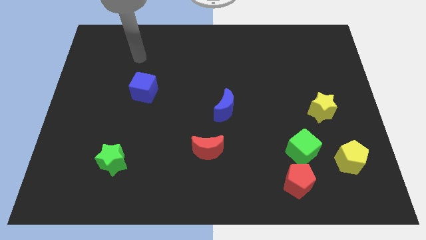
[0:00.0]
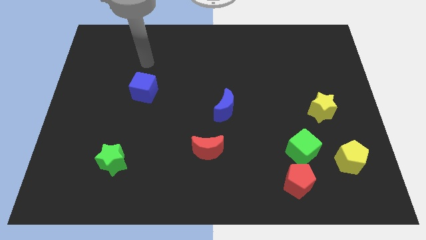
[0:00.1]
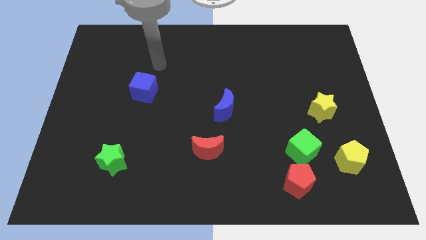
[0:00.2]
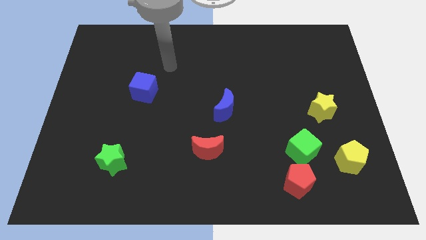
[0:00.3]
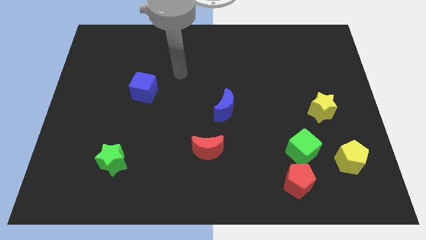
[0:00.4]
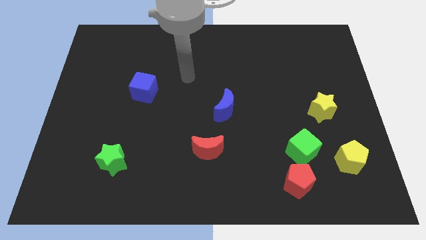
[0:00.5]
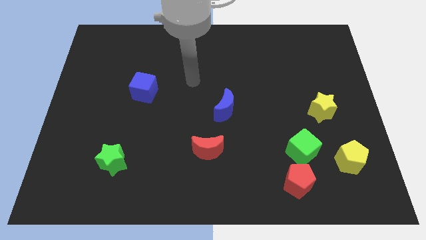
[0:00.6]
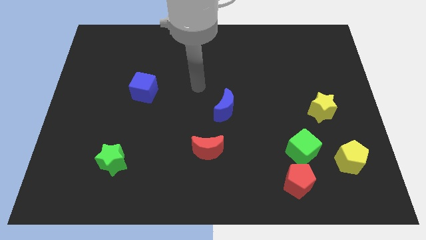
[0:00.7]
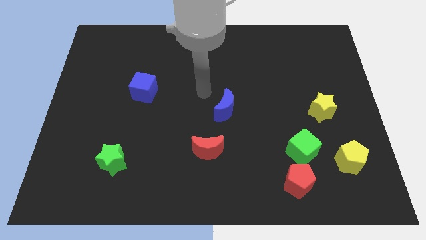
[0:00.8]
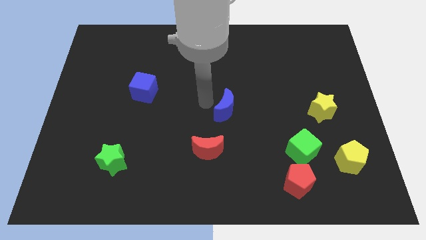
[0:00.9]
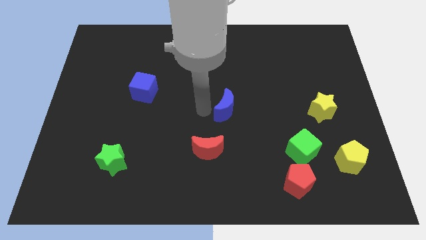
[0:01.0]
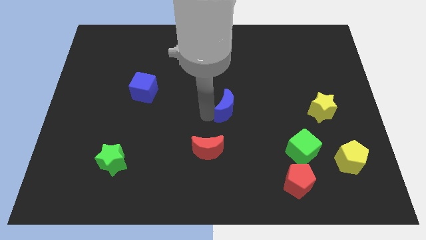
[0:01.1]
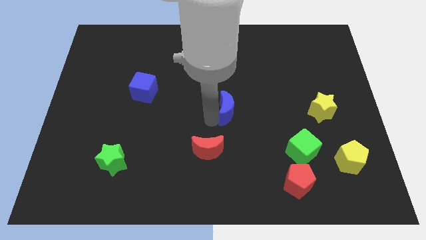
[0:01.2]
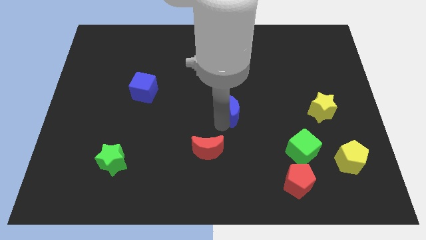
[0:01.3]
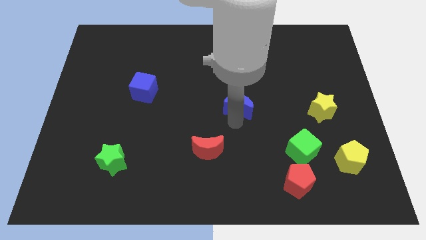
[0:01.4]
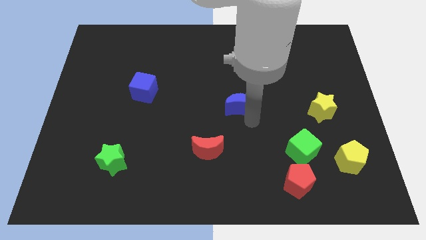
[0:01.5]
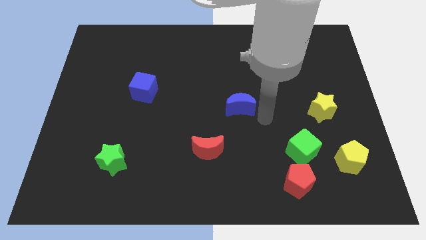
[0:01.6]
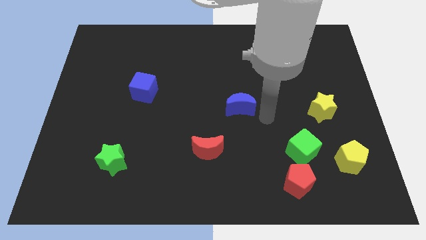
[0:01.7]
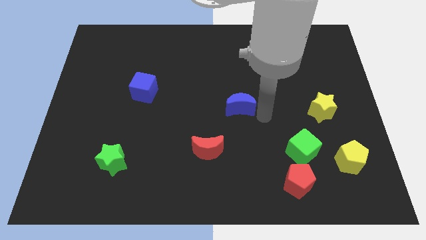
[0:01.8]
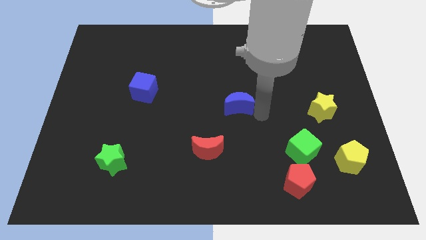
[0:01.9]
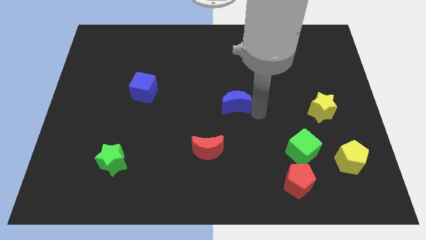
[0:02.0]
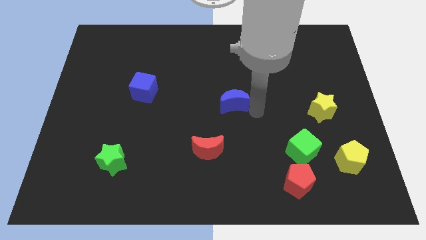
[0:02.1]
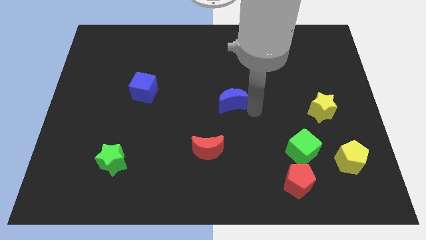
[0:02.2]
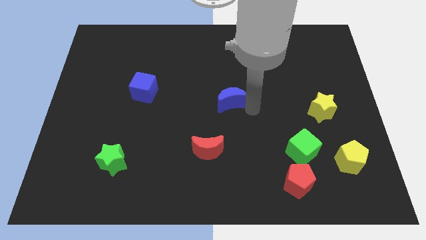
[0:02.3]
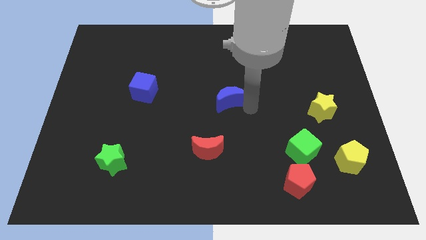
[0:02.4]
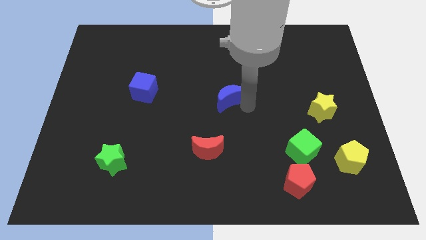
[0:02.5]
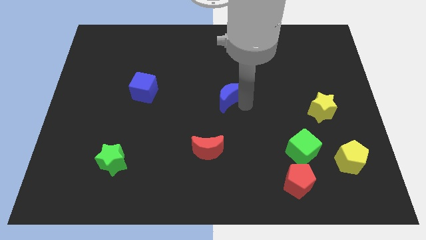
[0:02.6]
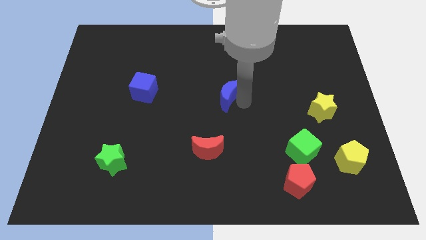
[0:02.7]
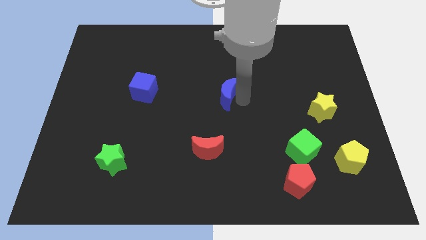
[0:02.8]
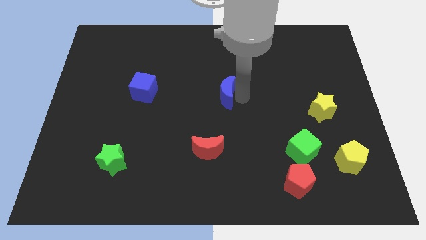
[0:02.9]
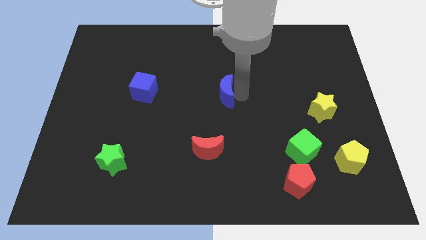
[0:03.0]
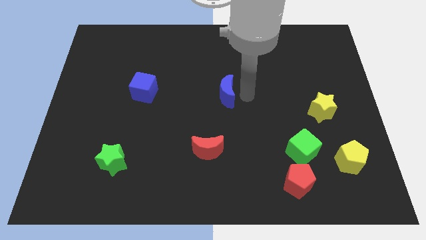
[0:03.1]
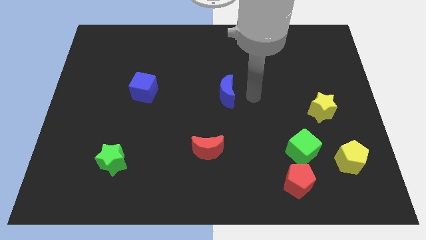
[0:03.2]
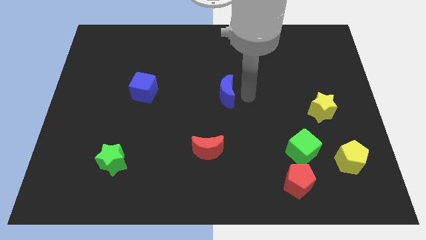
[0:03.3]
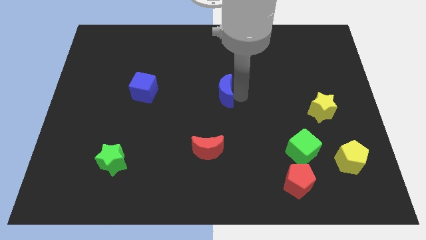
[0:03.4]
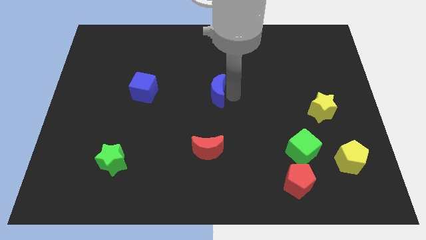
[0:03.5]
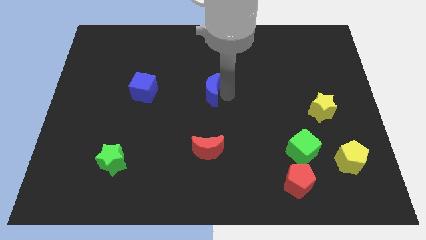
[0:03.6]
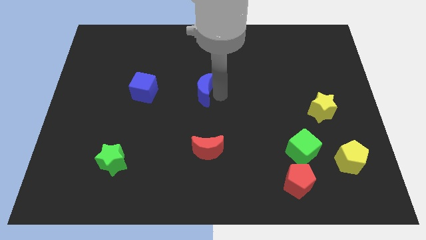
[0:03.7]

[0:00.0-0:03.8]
slide the blue moon up and left a little

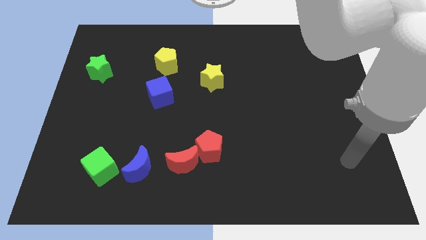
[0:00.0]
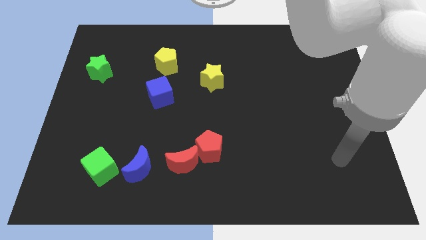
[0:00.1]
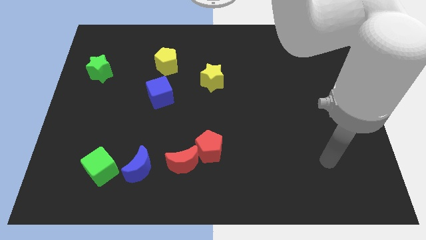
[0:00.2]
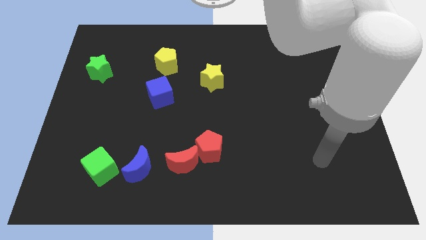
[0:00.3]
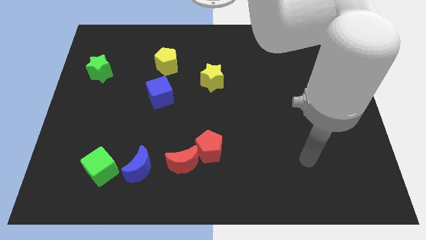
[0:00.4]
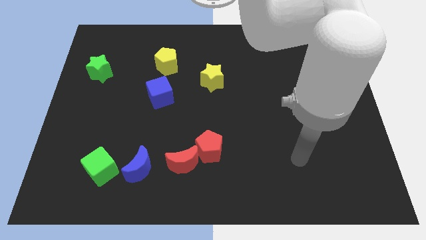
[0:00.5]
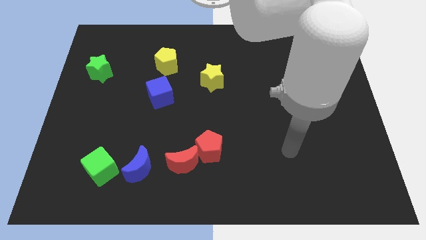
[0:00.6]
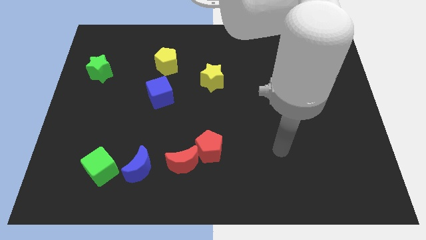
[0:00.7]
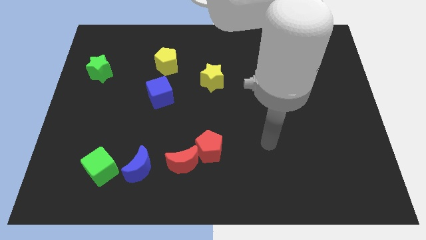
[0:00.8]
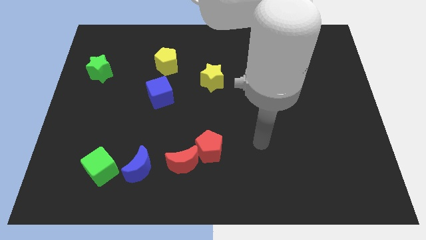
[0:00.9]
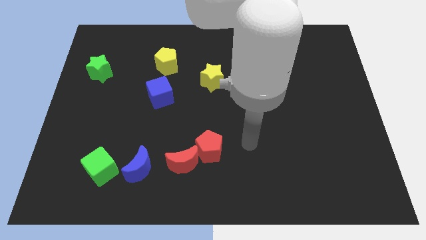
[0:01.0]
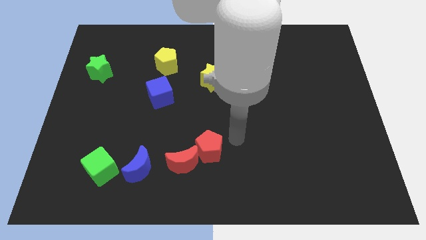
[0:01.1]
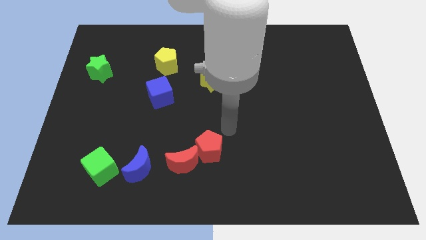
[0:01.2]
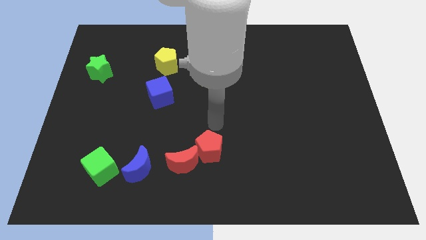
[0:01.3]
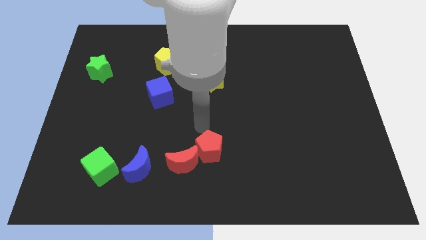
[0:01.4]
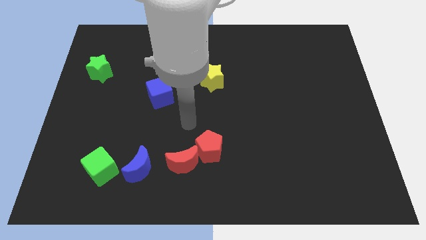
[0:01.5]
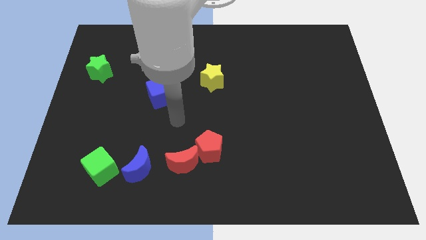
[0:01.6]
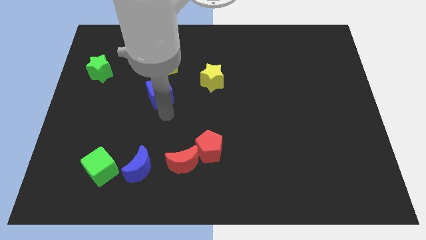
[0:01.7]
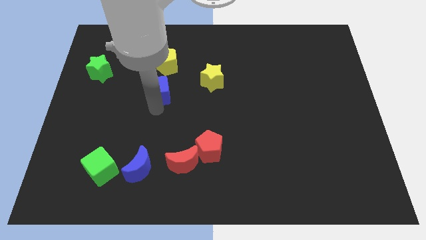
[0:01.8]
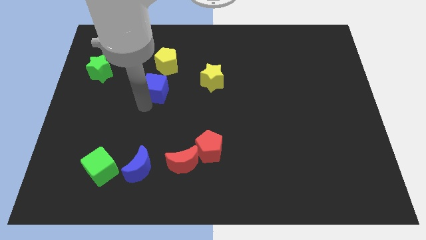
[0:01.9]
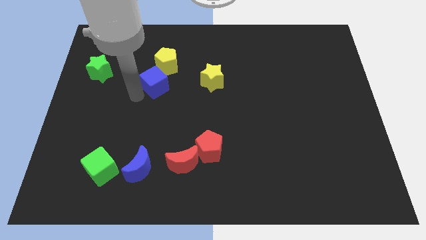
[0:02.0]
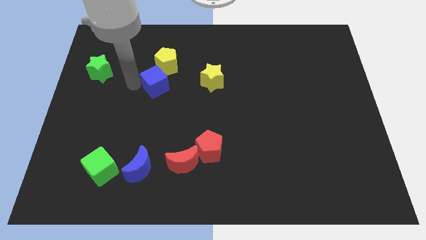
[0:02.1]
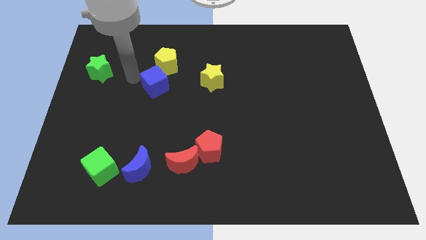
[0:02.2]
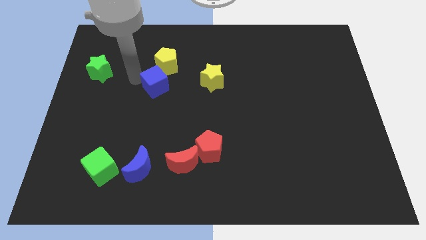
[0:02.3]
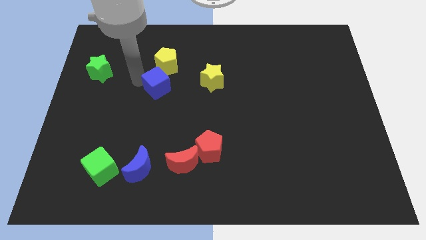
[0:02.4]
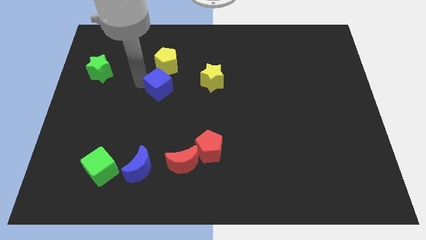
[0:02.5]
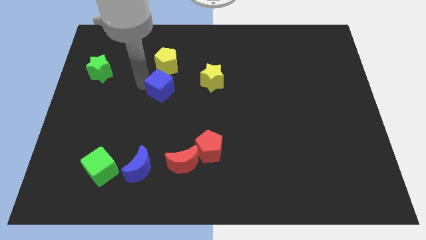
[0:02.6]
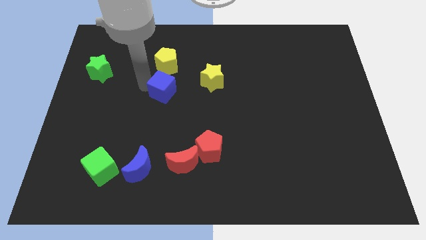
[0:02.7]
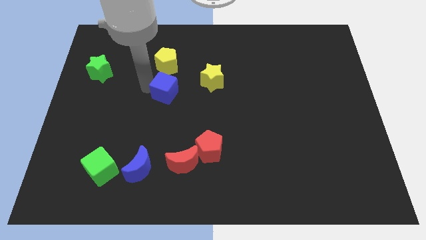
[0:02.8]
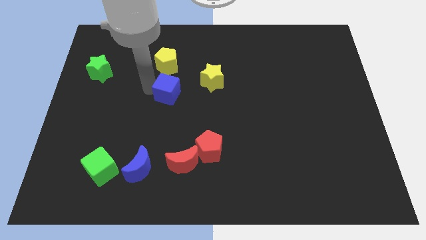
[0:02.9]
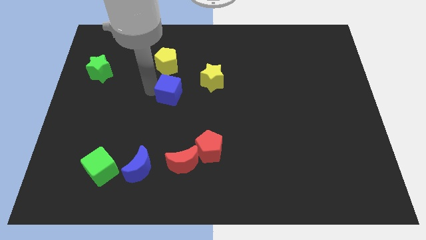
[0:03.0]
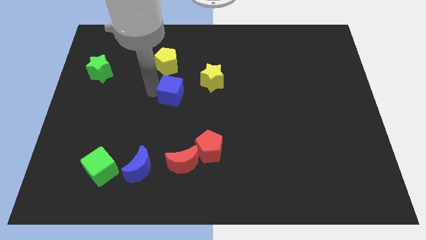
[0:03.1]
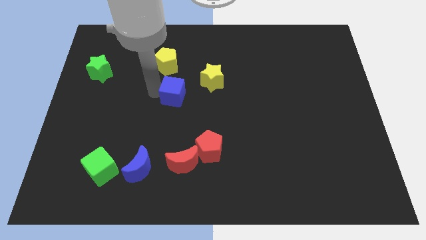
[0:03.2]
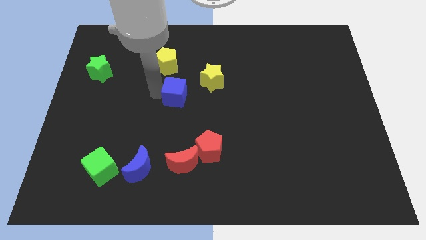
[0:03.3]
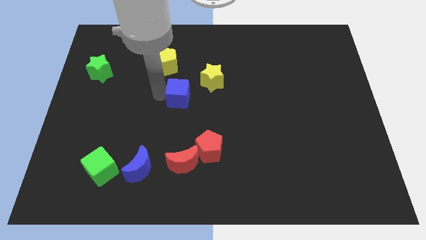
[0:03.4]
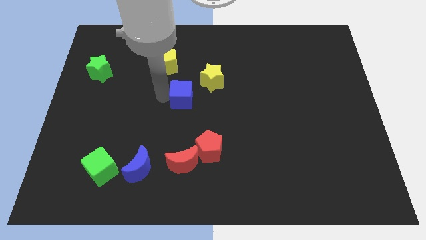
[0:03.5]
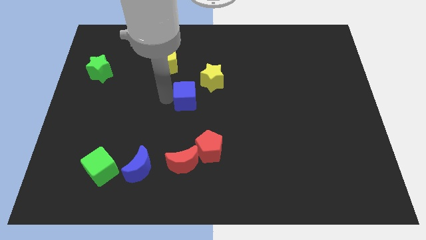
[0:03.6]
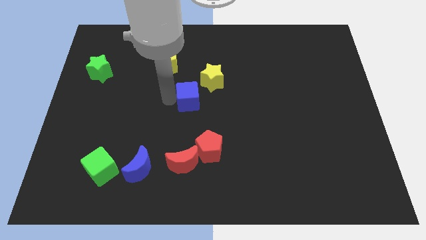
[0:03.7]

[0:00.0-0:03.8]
move the blue cube a bit right

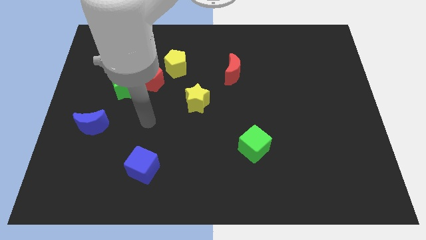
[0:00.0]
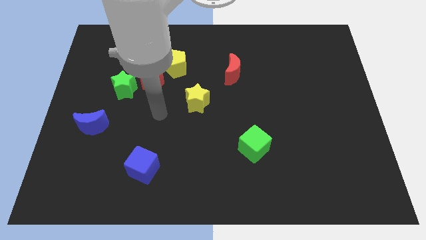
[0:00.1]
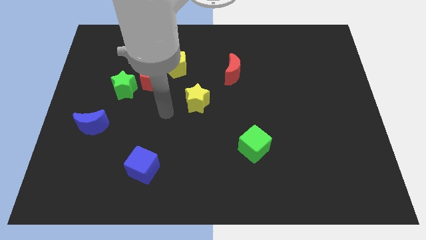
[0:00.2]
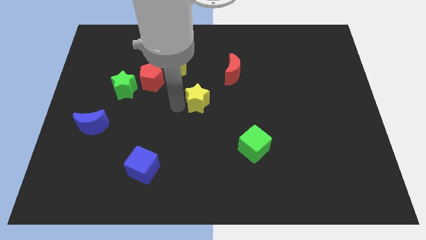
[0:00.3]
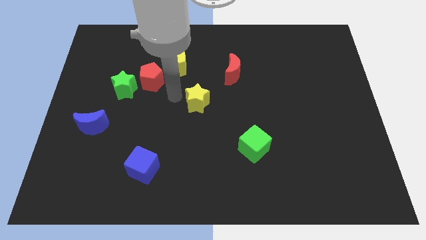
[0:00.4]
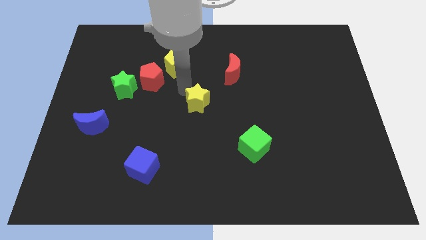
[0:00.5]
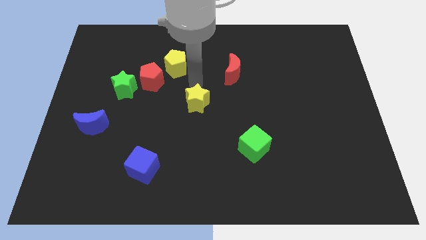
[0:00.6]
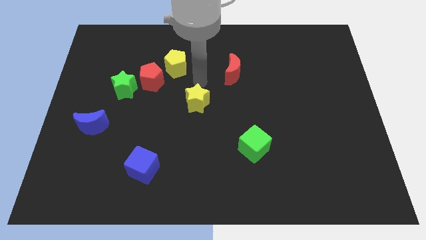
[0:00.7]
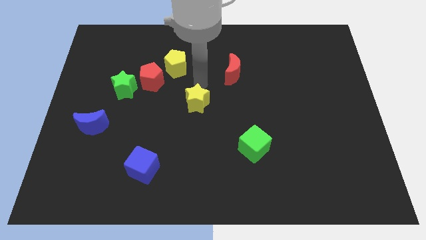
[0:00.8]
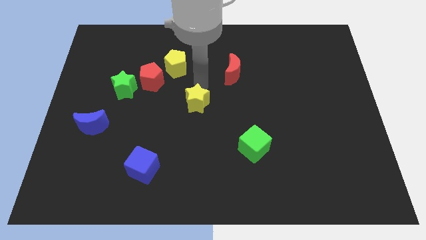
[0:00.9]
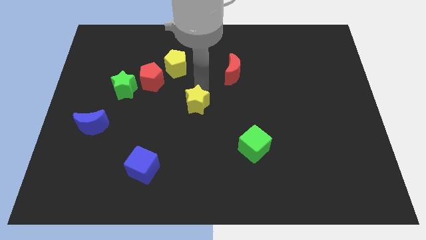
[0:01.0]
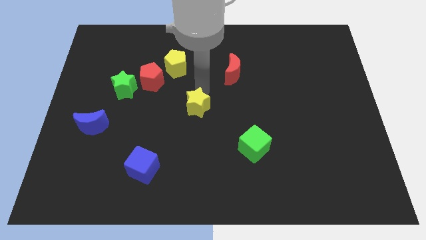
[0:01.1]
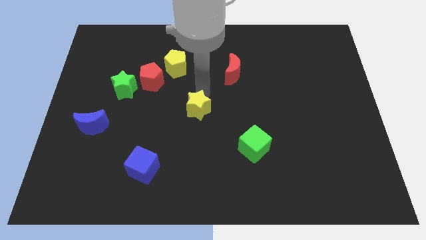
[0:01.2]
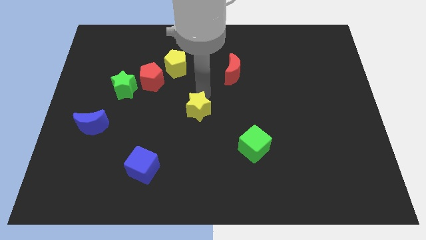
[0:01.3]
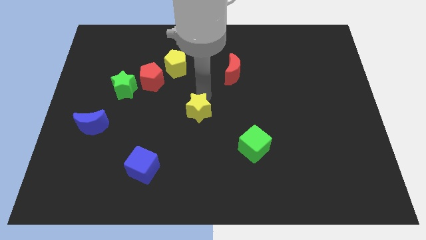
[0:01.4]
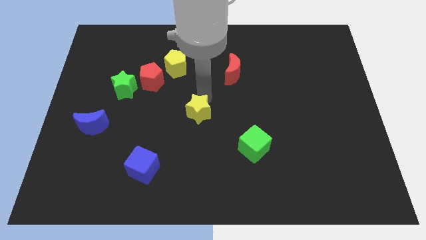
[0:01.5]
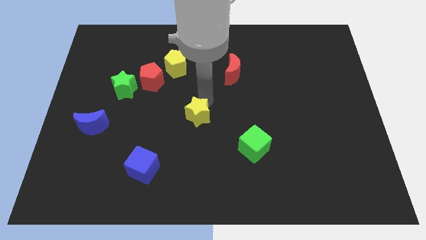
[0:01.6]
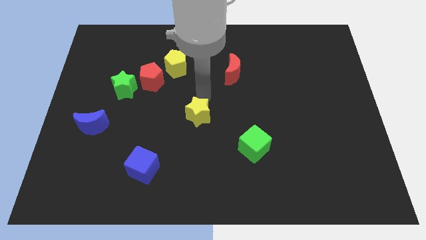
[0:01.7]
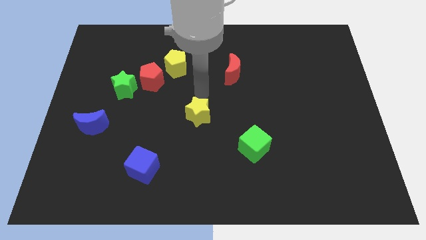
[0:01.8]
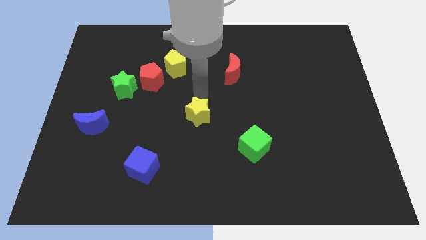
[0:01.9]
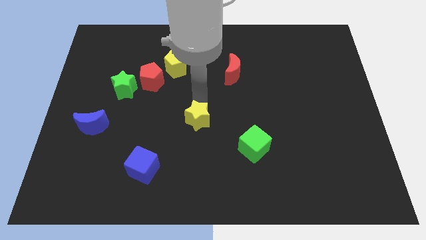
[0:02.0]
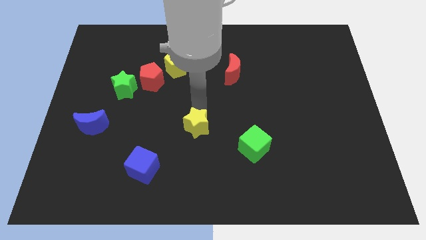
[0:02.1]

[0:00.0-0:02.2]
slightly push the yellow star downwards
